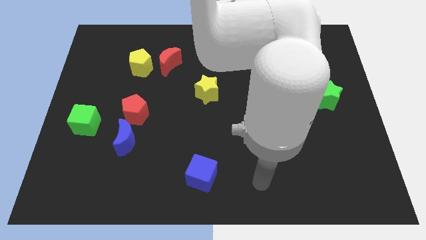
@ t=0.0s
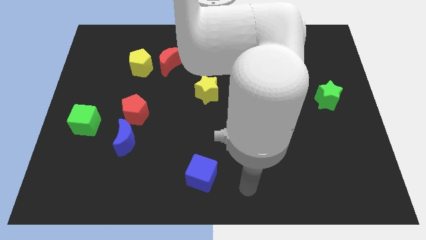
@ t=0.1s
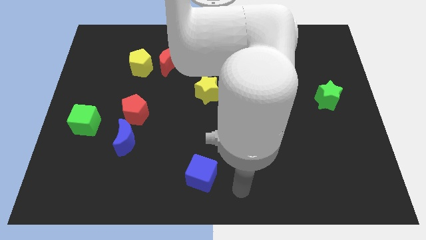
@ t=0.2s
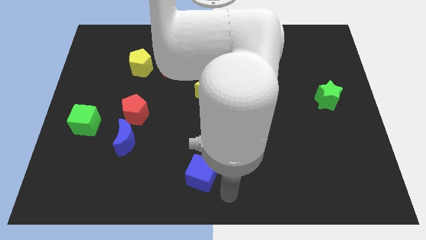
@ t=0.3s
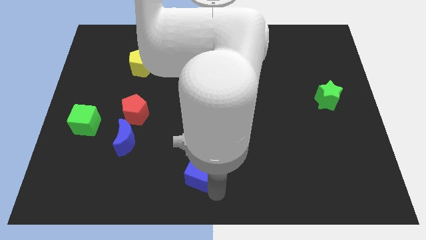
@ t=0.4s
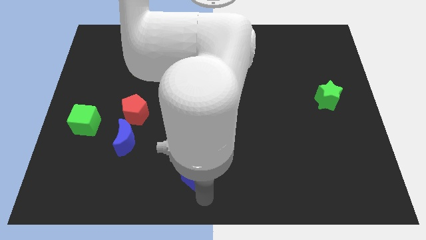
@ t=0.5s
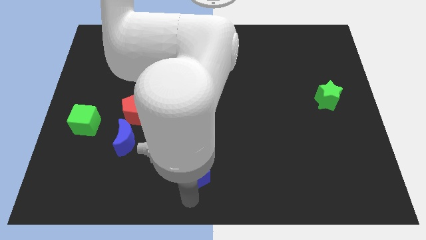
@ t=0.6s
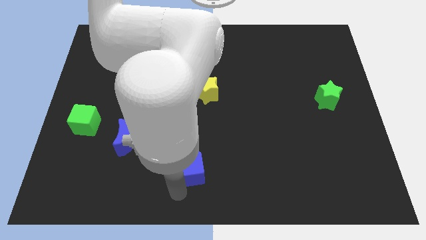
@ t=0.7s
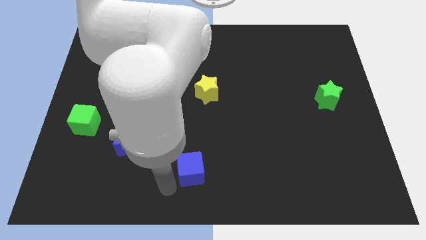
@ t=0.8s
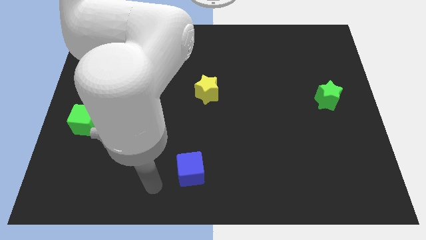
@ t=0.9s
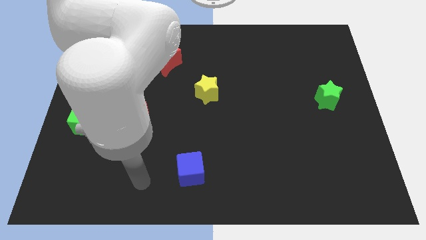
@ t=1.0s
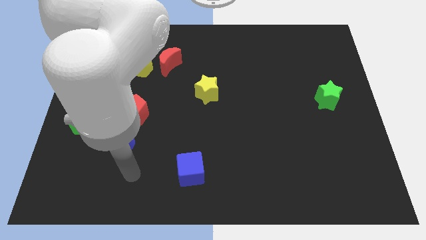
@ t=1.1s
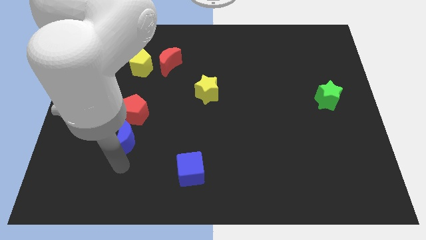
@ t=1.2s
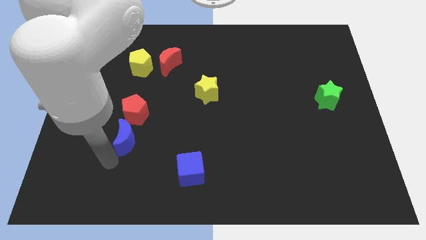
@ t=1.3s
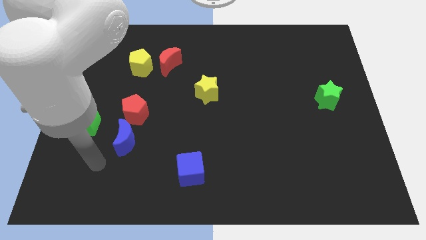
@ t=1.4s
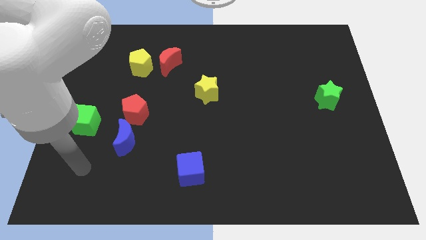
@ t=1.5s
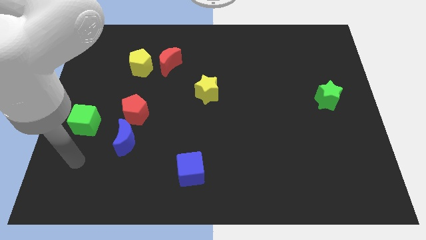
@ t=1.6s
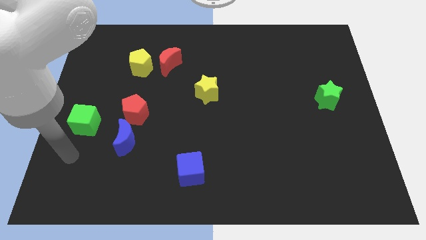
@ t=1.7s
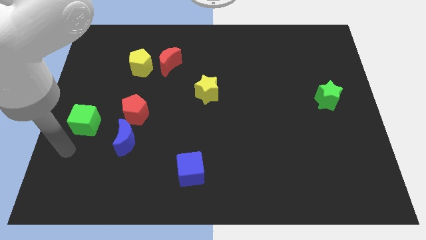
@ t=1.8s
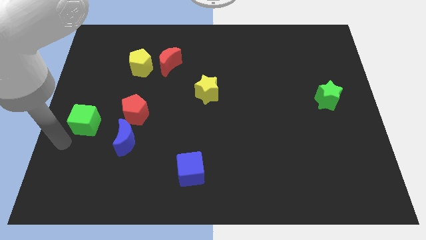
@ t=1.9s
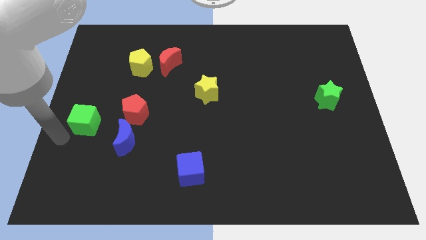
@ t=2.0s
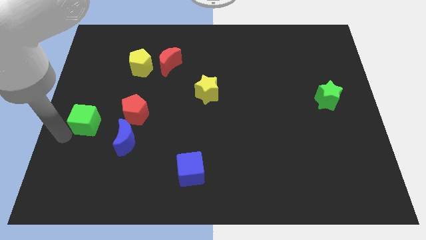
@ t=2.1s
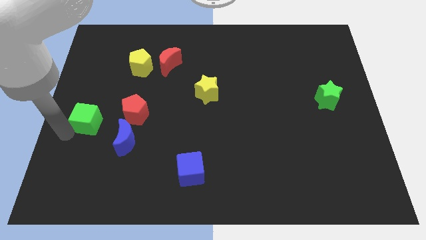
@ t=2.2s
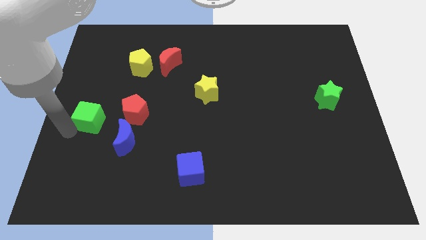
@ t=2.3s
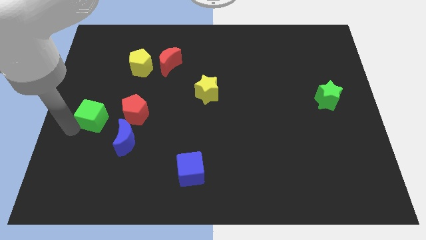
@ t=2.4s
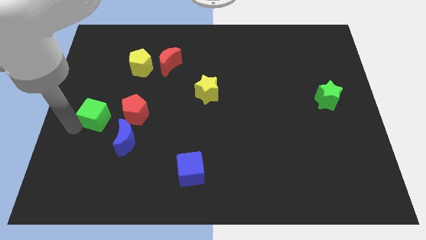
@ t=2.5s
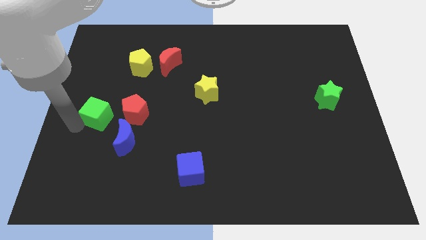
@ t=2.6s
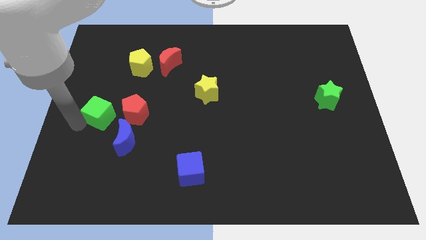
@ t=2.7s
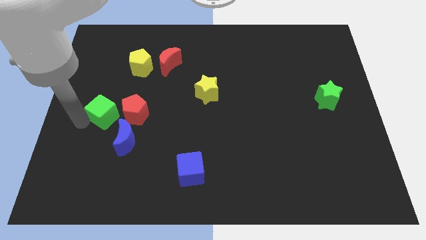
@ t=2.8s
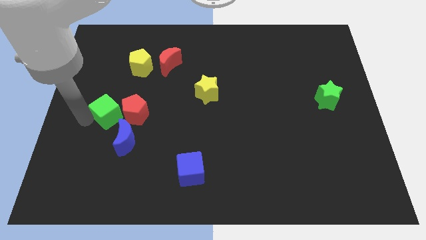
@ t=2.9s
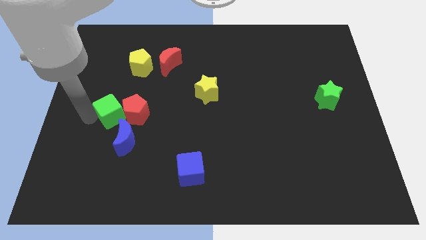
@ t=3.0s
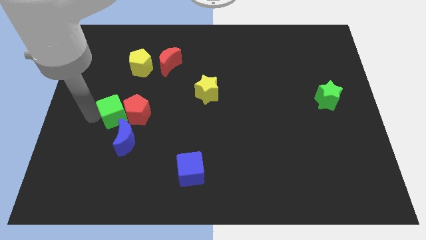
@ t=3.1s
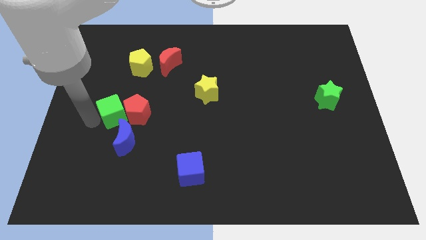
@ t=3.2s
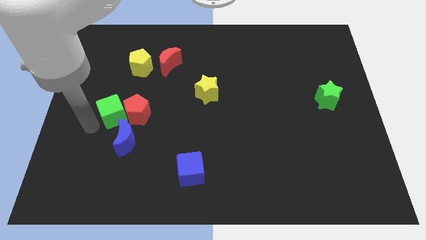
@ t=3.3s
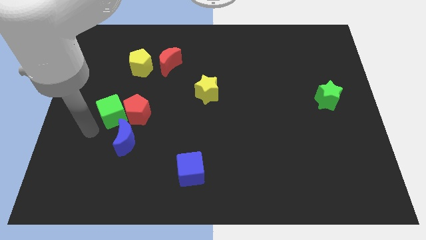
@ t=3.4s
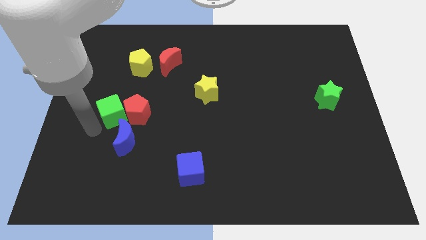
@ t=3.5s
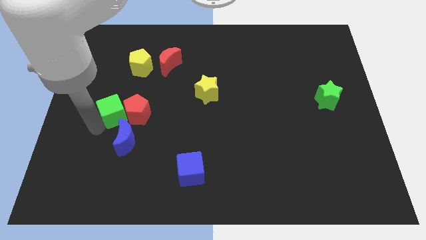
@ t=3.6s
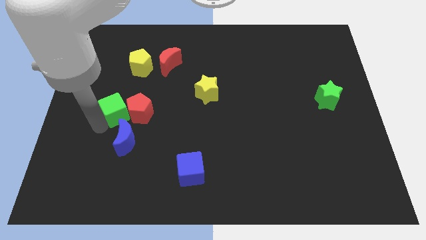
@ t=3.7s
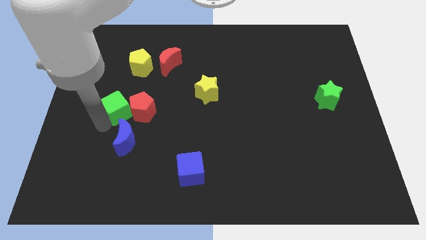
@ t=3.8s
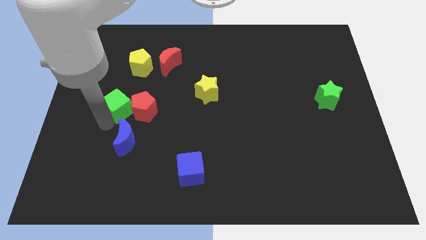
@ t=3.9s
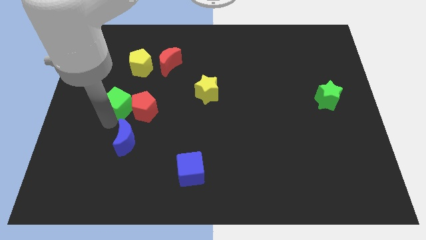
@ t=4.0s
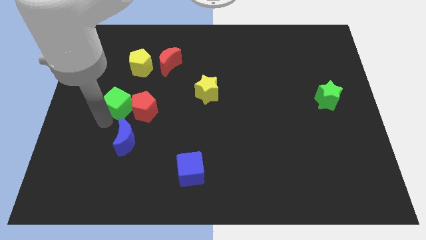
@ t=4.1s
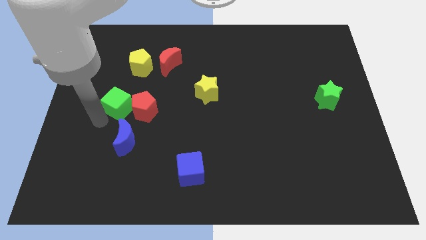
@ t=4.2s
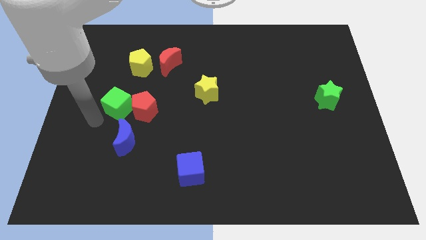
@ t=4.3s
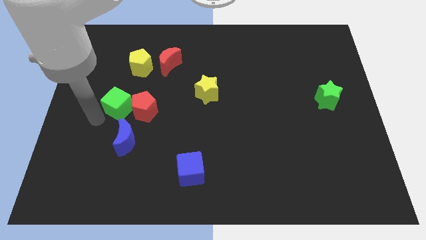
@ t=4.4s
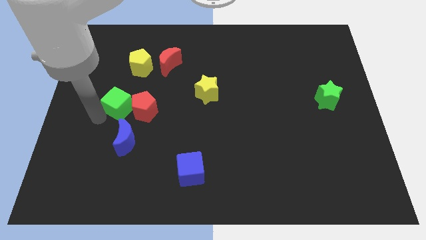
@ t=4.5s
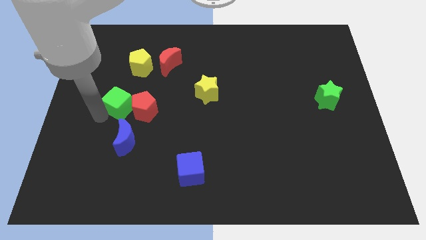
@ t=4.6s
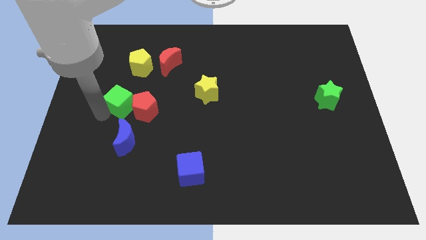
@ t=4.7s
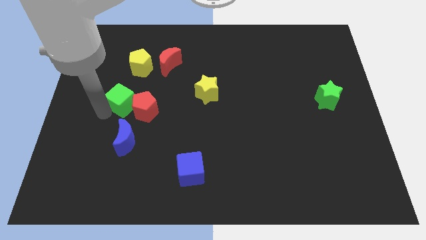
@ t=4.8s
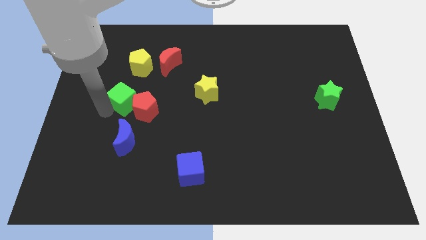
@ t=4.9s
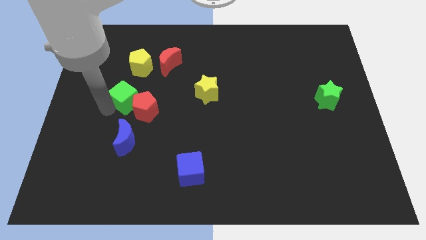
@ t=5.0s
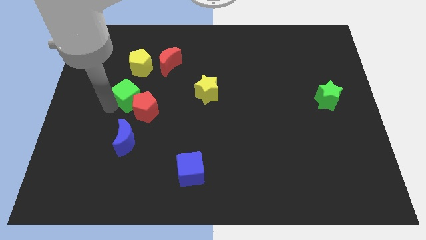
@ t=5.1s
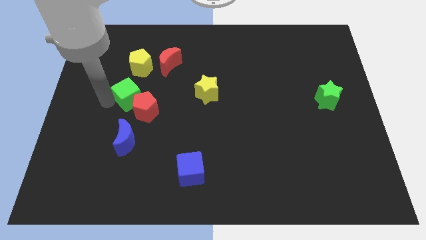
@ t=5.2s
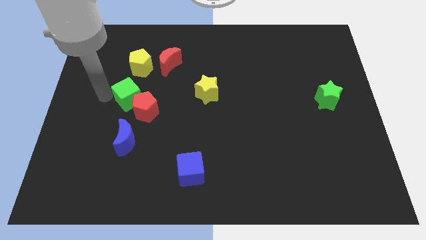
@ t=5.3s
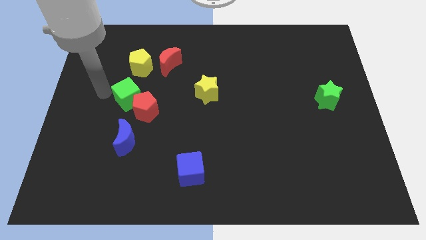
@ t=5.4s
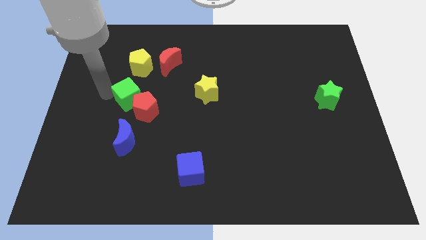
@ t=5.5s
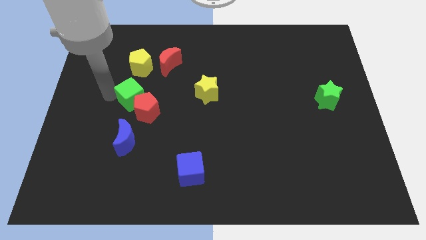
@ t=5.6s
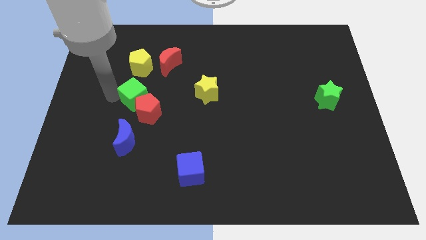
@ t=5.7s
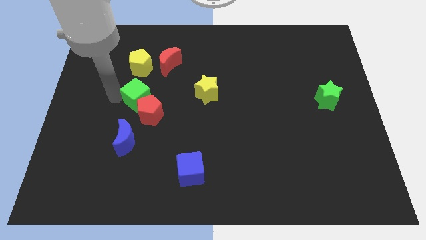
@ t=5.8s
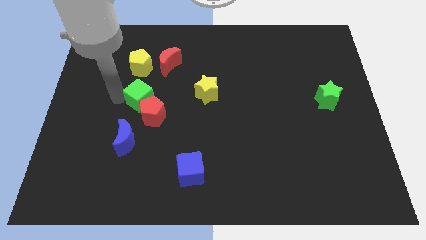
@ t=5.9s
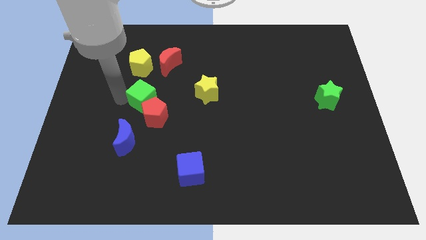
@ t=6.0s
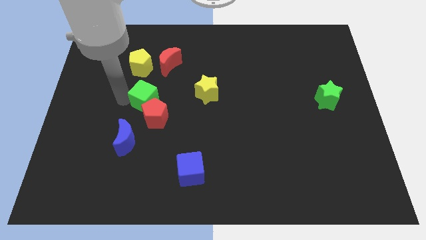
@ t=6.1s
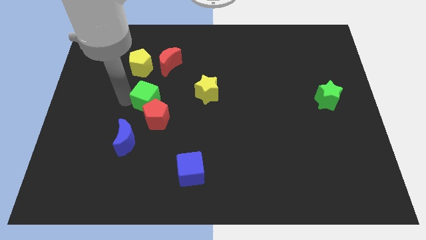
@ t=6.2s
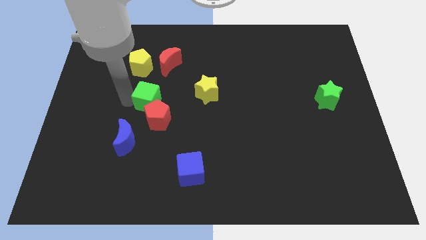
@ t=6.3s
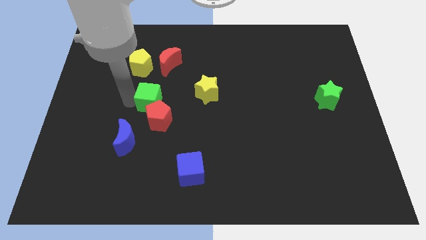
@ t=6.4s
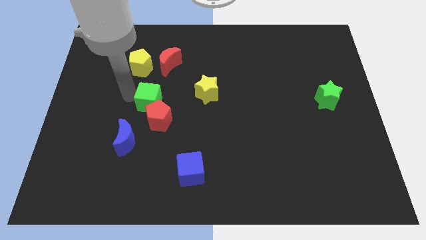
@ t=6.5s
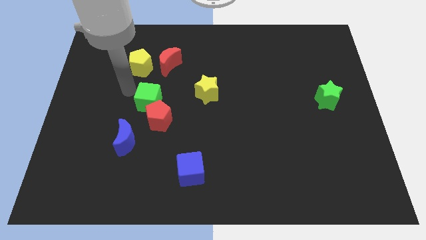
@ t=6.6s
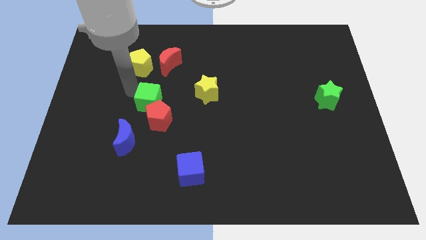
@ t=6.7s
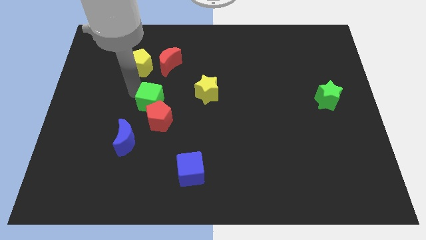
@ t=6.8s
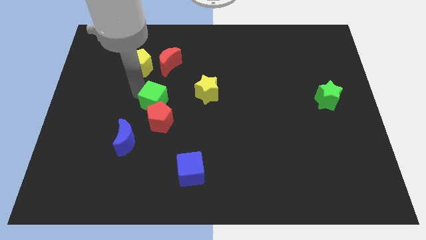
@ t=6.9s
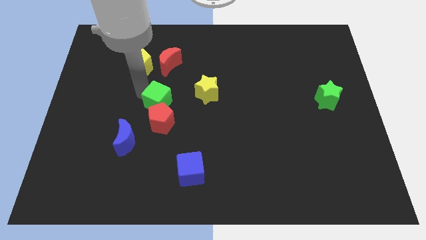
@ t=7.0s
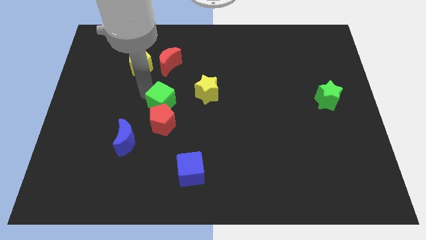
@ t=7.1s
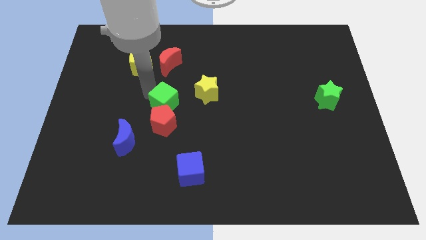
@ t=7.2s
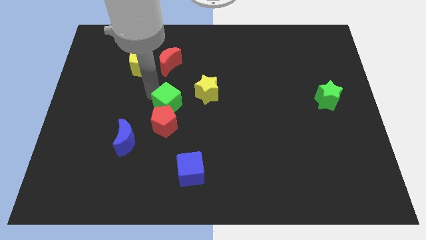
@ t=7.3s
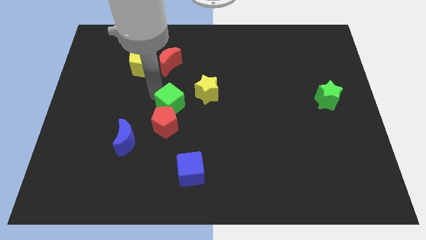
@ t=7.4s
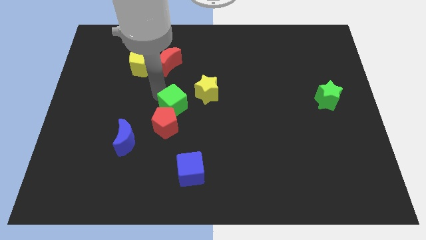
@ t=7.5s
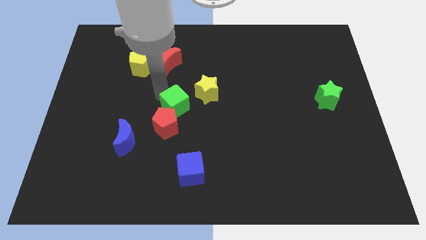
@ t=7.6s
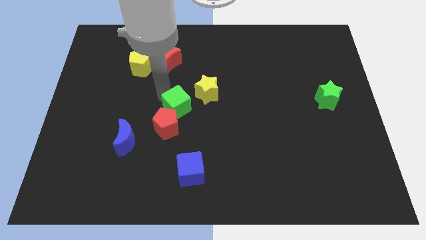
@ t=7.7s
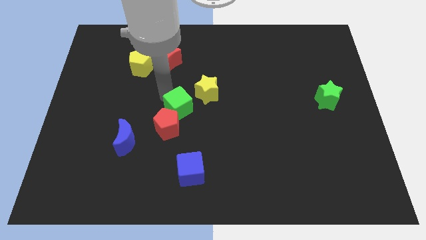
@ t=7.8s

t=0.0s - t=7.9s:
move the green cube to the right

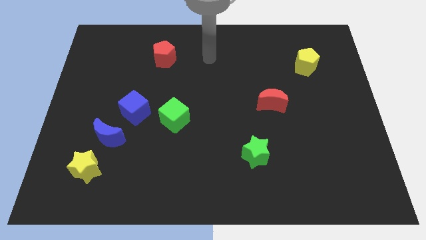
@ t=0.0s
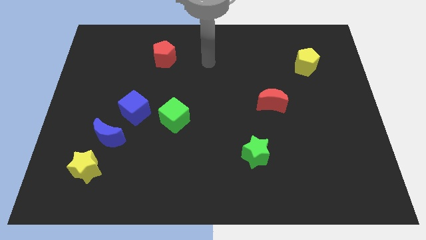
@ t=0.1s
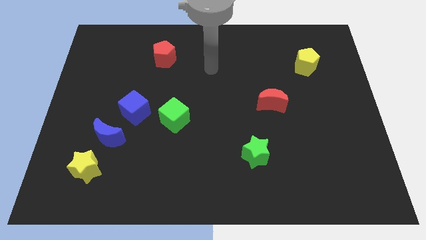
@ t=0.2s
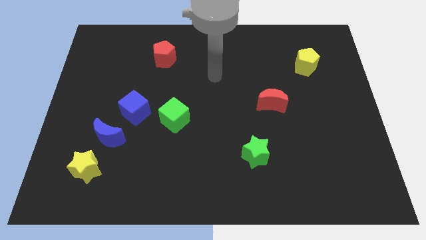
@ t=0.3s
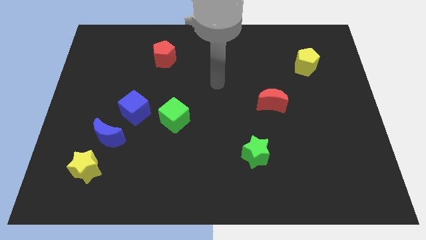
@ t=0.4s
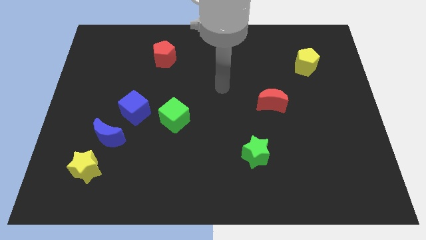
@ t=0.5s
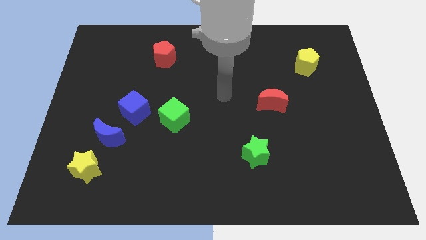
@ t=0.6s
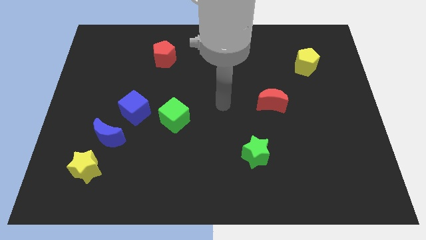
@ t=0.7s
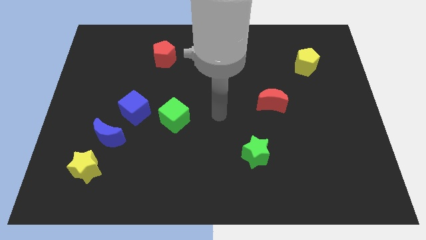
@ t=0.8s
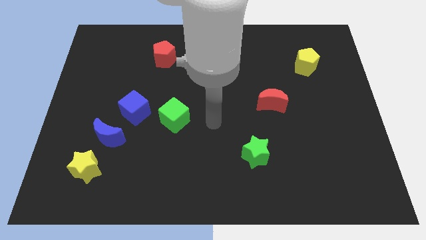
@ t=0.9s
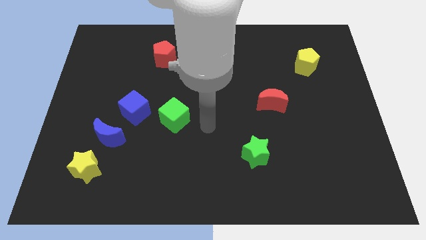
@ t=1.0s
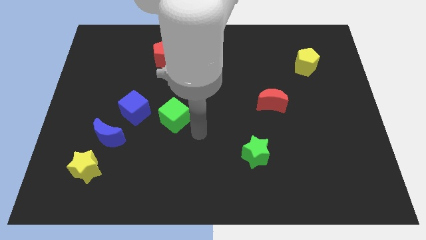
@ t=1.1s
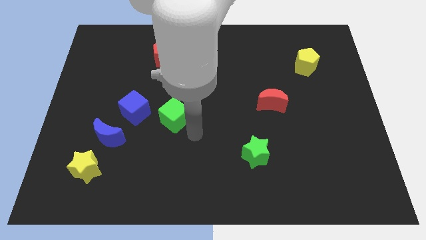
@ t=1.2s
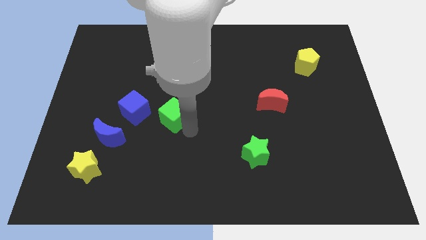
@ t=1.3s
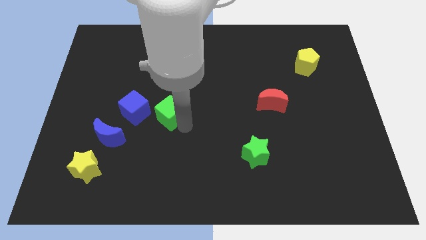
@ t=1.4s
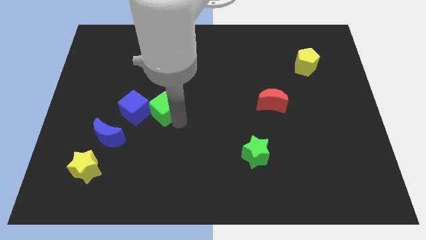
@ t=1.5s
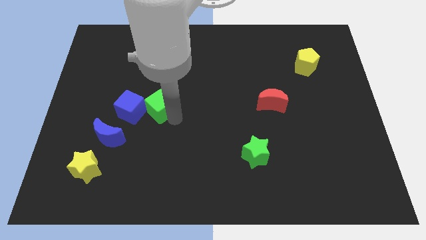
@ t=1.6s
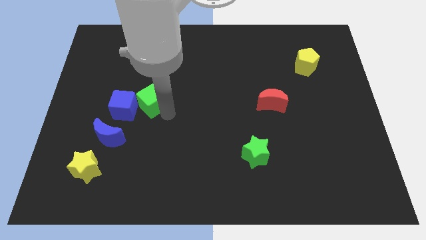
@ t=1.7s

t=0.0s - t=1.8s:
slide the green cube a bit diagonally upwards and to the left
